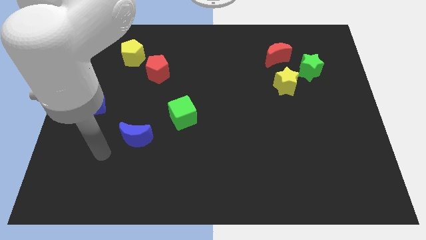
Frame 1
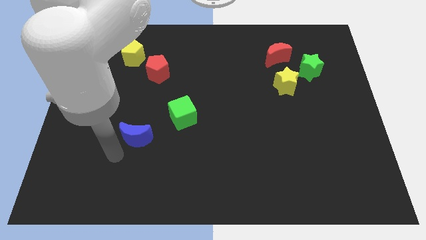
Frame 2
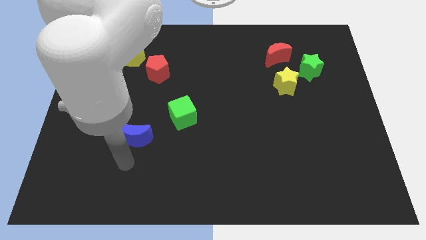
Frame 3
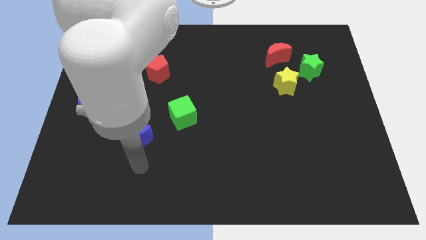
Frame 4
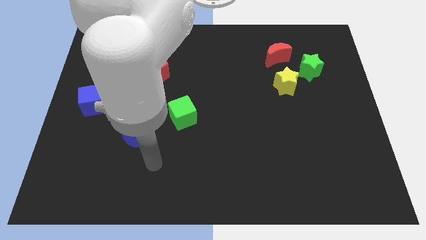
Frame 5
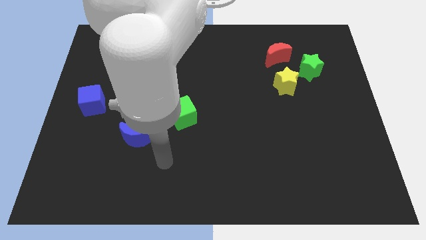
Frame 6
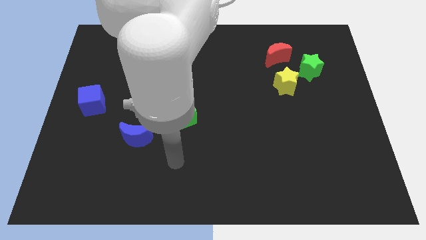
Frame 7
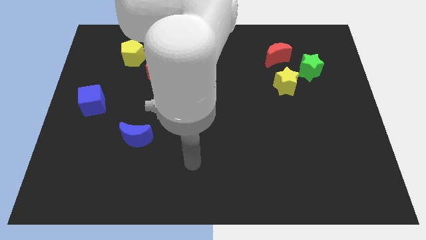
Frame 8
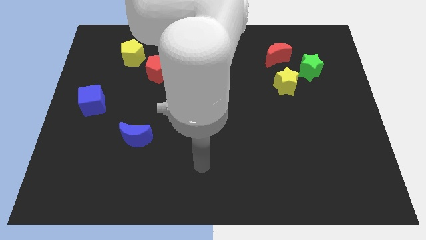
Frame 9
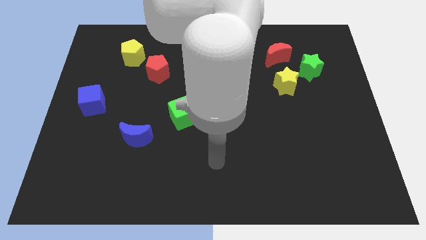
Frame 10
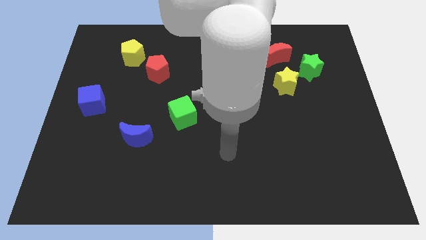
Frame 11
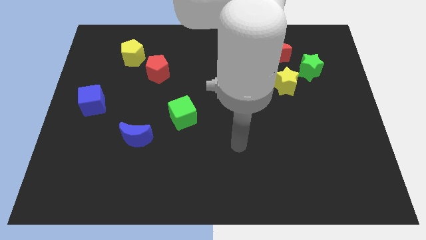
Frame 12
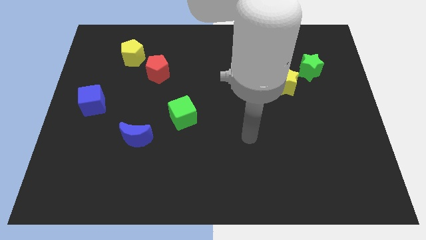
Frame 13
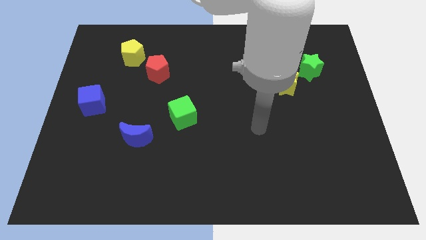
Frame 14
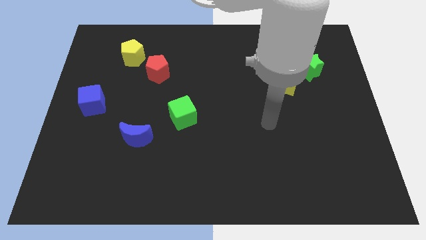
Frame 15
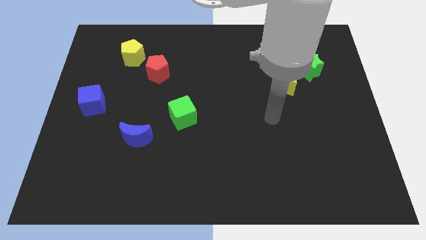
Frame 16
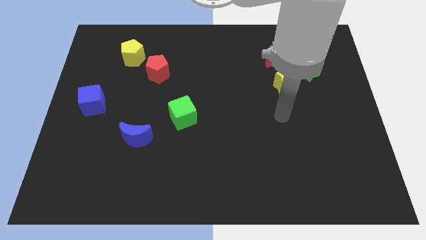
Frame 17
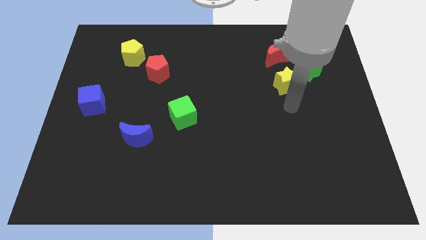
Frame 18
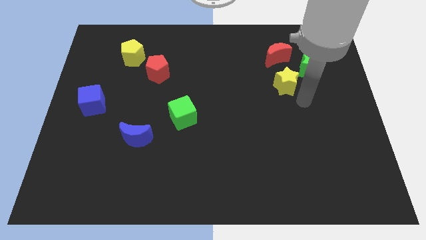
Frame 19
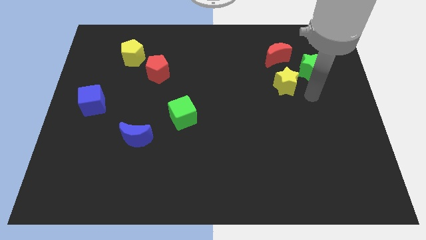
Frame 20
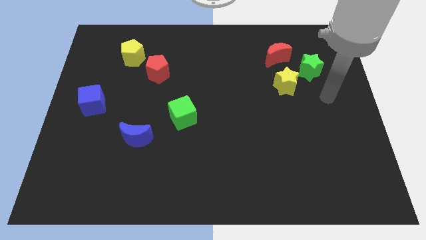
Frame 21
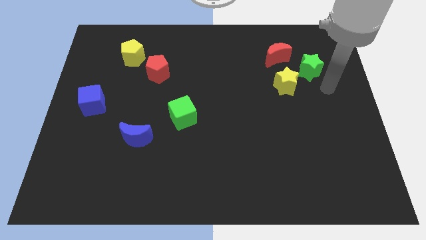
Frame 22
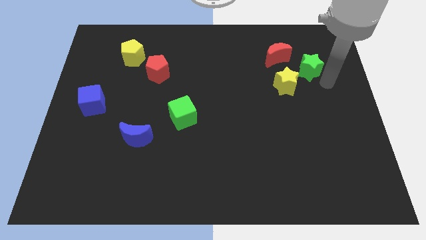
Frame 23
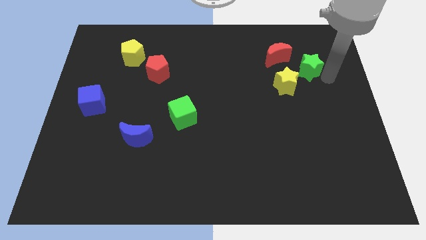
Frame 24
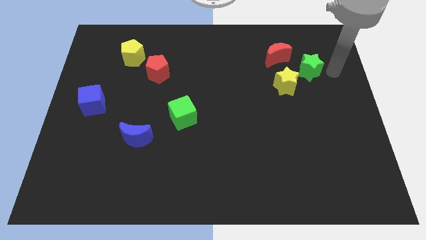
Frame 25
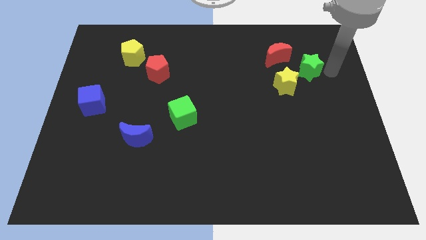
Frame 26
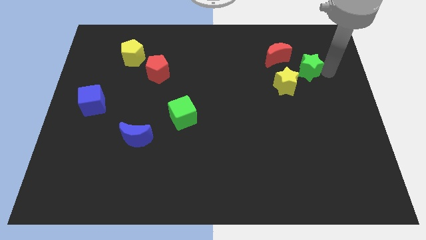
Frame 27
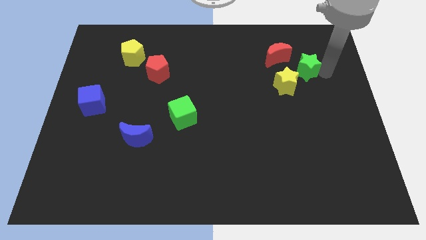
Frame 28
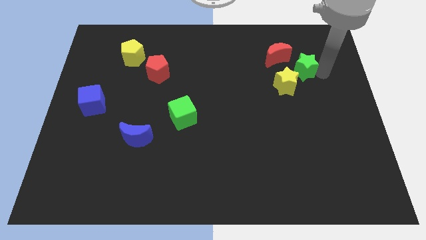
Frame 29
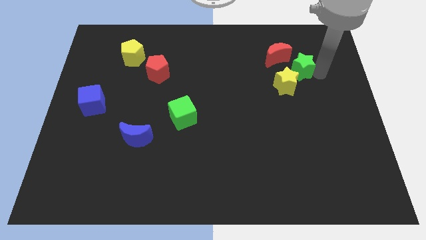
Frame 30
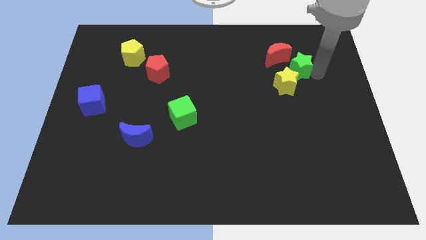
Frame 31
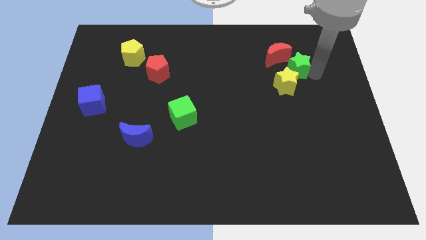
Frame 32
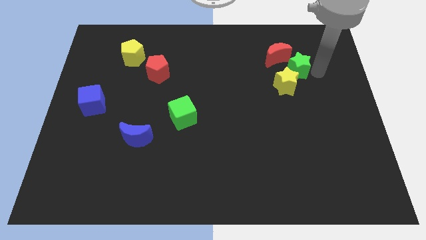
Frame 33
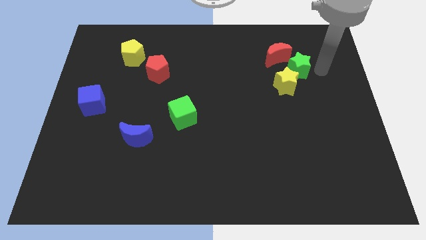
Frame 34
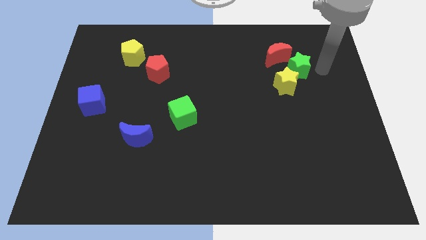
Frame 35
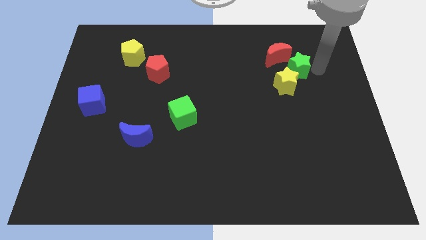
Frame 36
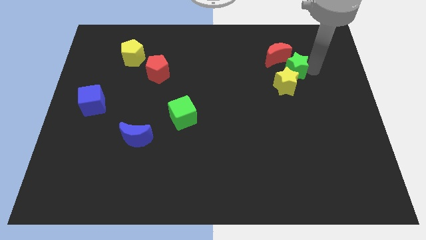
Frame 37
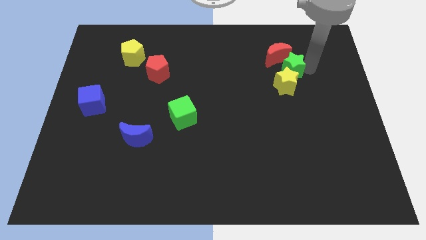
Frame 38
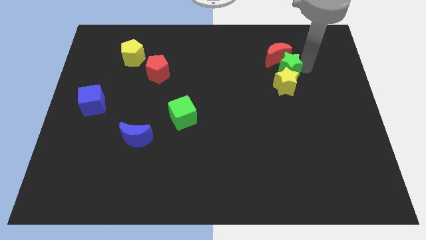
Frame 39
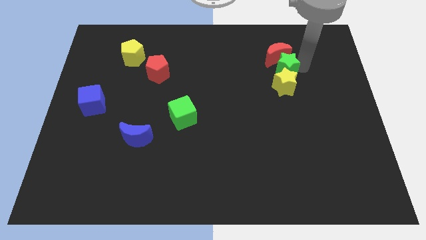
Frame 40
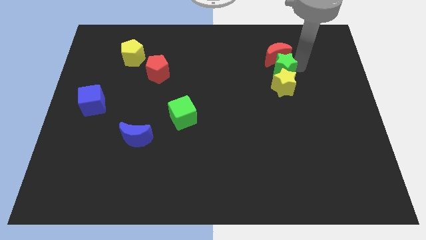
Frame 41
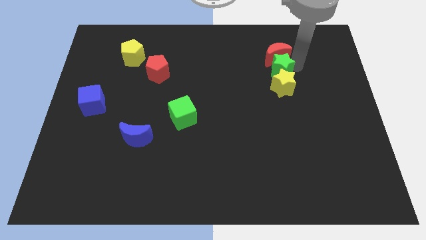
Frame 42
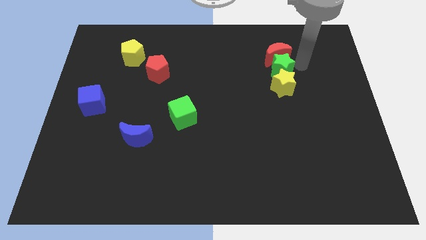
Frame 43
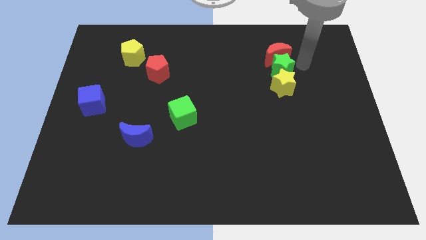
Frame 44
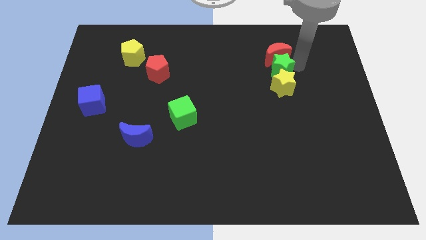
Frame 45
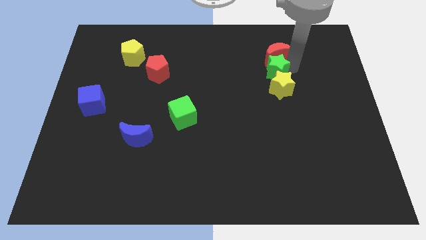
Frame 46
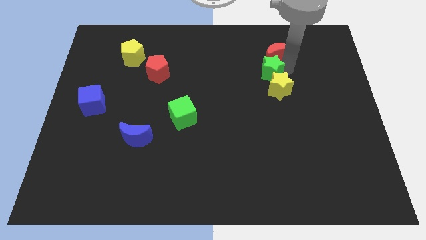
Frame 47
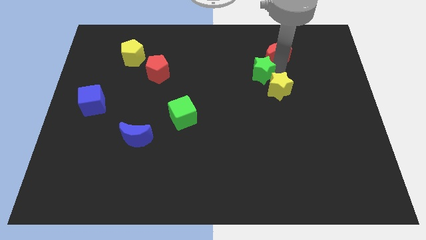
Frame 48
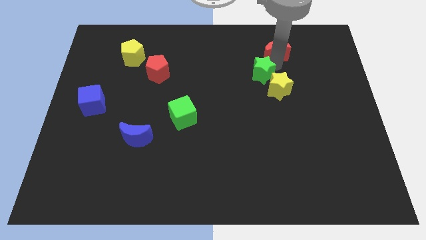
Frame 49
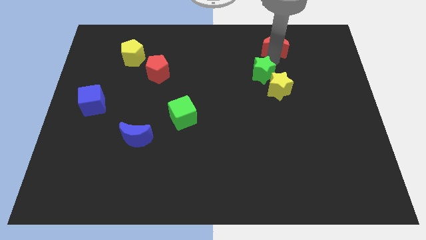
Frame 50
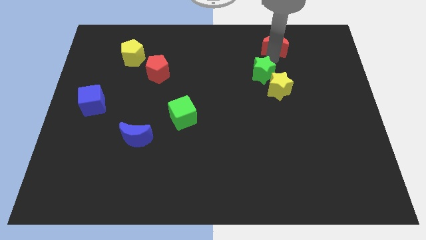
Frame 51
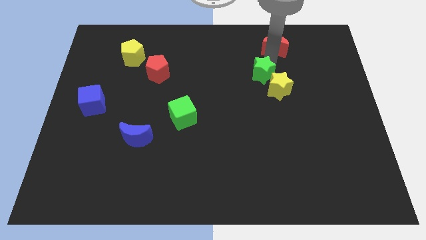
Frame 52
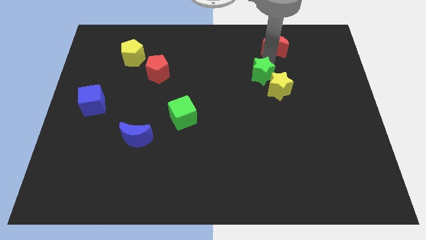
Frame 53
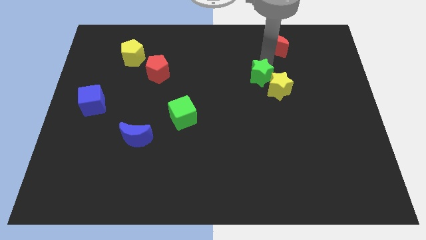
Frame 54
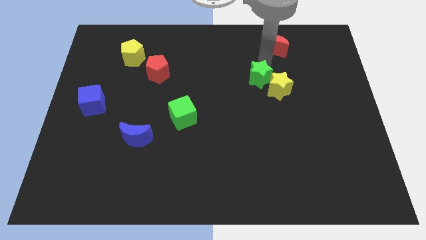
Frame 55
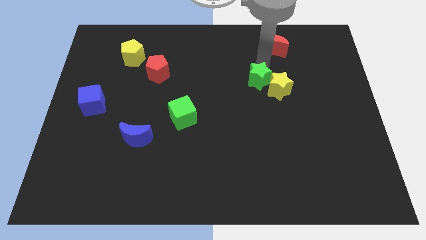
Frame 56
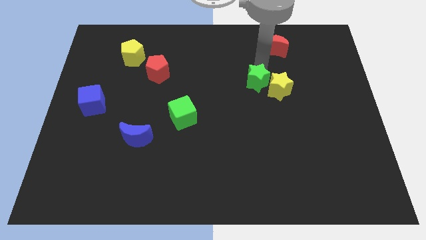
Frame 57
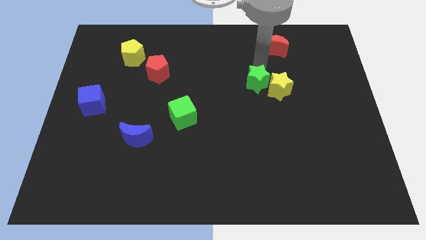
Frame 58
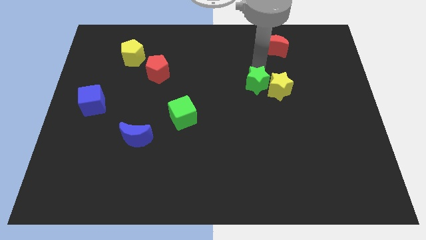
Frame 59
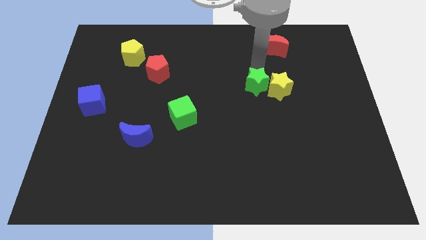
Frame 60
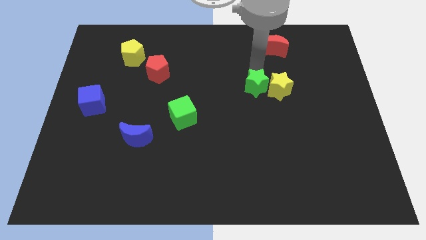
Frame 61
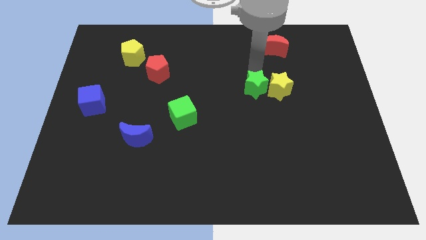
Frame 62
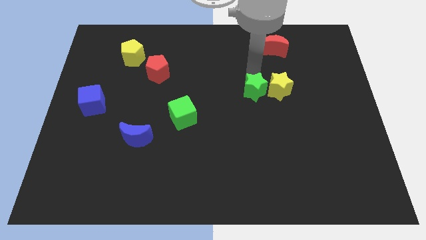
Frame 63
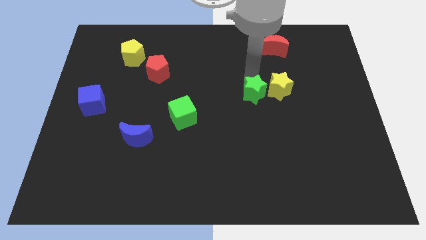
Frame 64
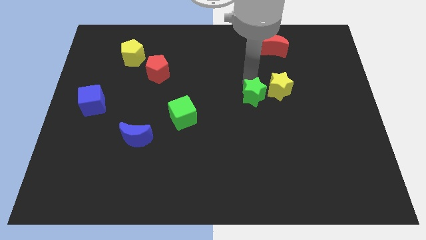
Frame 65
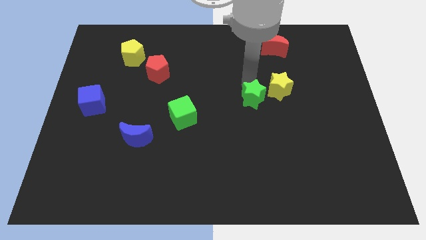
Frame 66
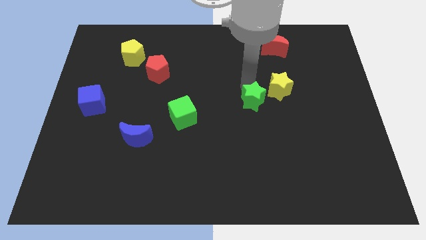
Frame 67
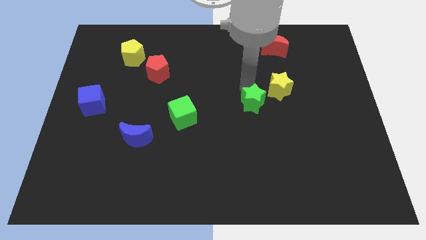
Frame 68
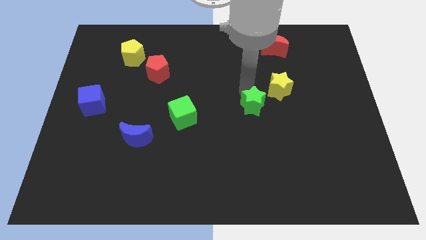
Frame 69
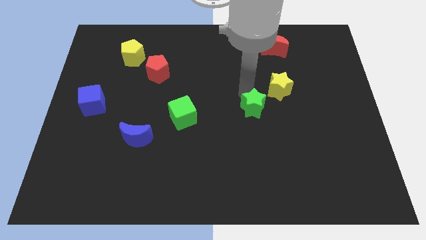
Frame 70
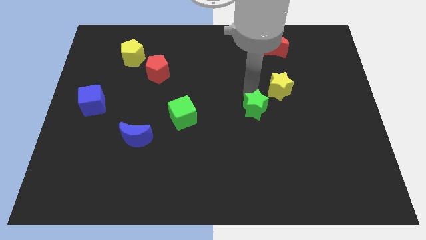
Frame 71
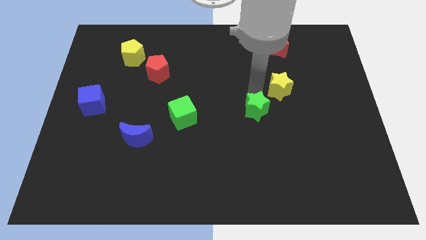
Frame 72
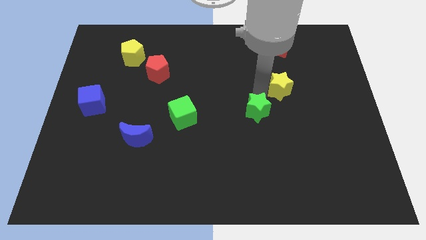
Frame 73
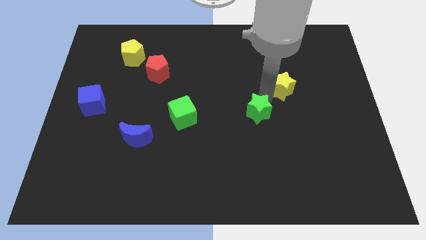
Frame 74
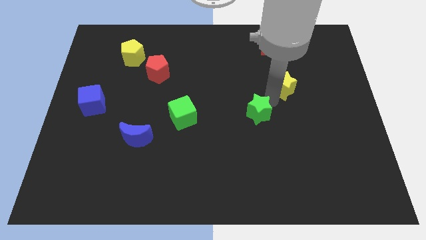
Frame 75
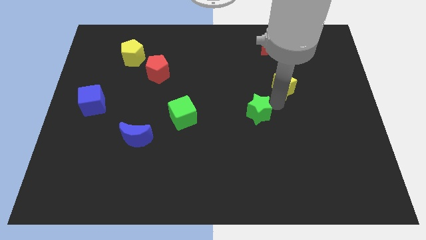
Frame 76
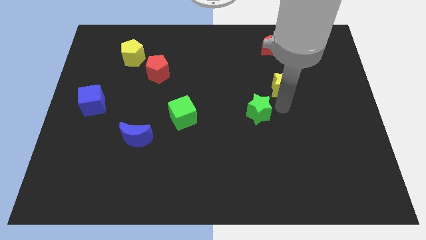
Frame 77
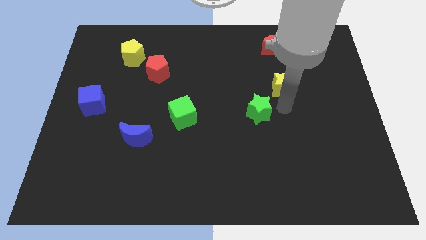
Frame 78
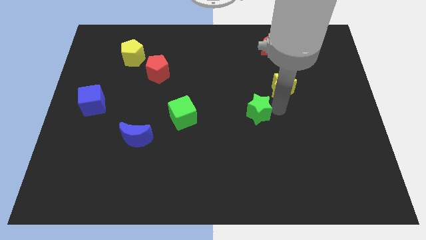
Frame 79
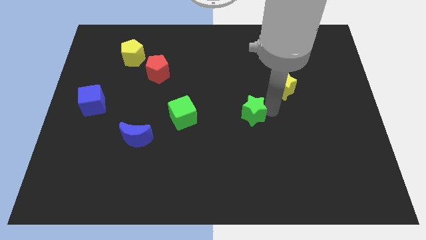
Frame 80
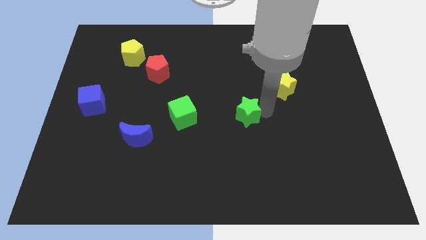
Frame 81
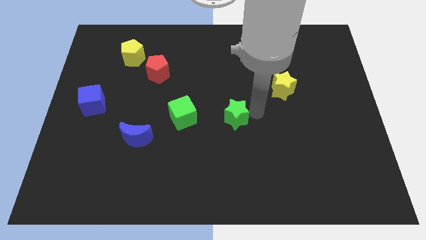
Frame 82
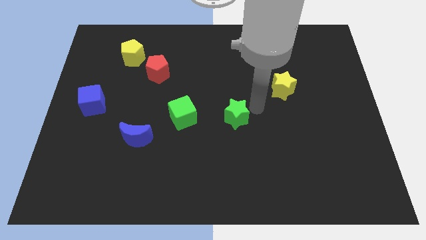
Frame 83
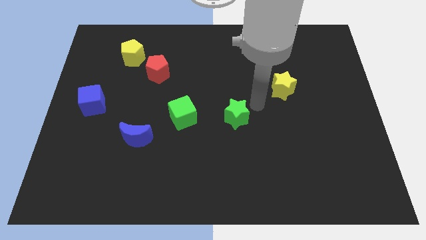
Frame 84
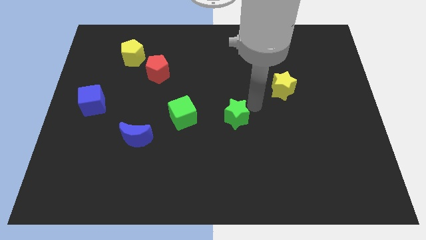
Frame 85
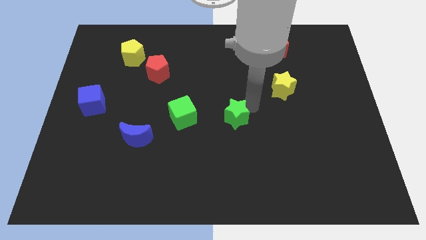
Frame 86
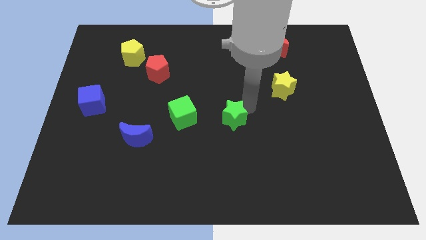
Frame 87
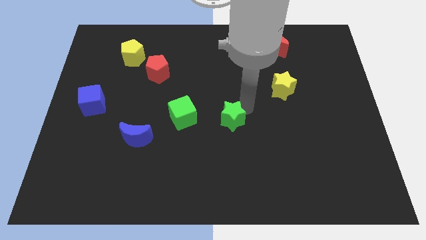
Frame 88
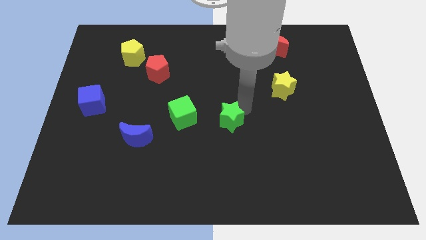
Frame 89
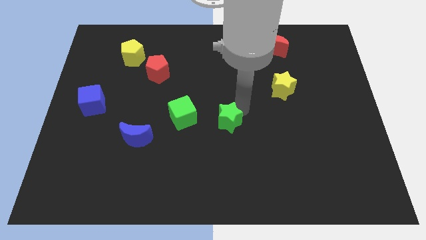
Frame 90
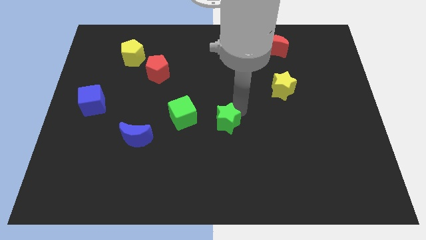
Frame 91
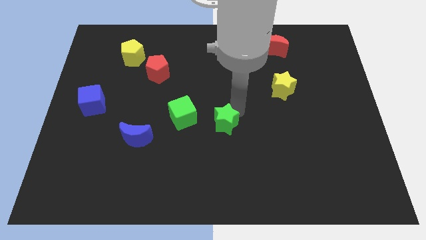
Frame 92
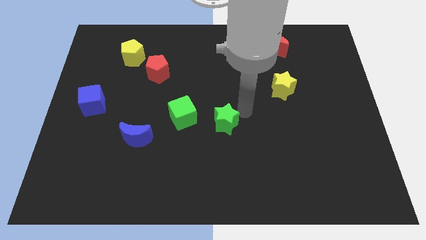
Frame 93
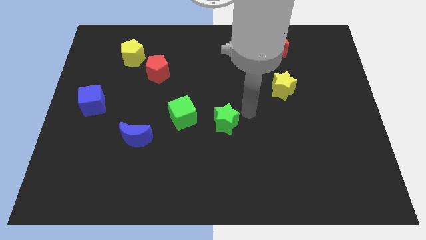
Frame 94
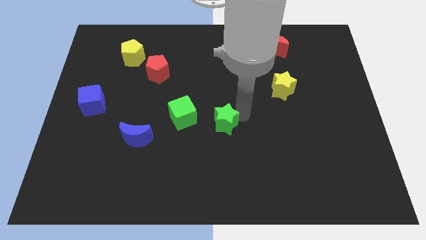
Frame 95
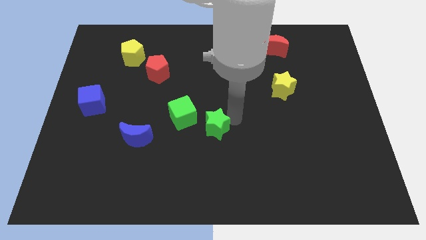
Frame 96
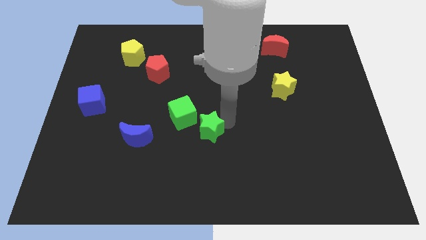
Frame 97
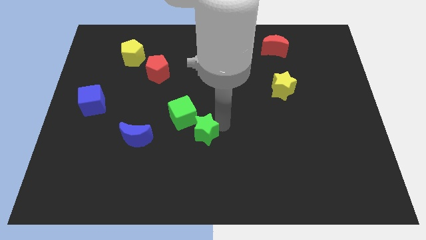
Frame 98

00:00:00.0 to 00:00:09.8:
slide the green star below the green cube
